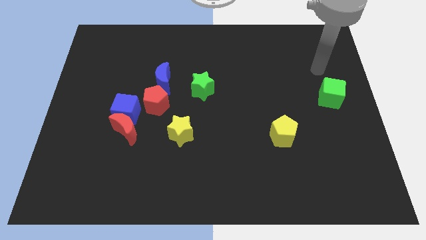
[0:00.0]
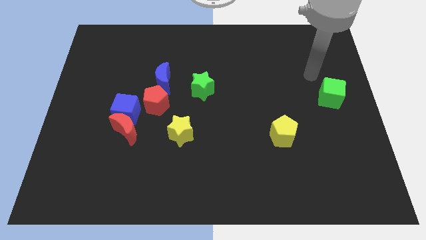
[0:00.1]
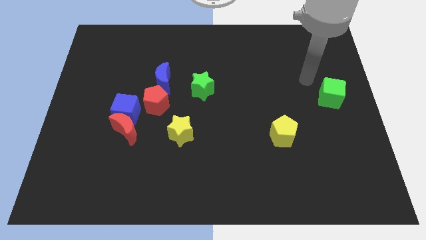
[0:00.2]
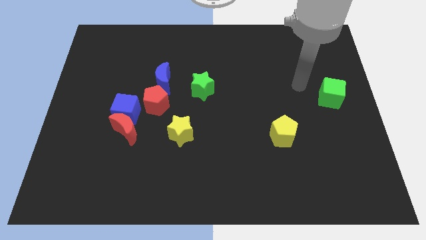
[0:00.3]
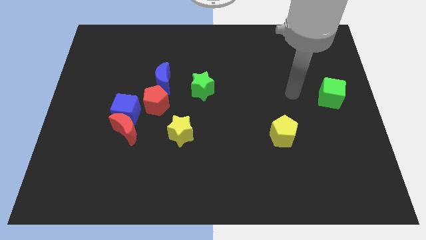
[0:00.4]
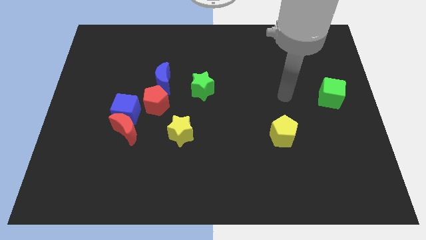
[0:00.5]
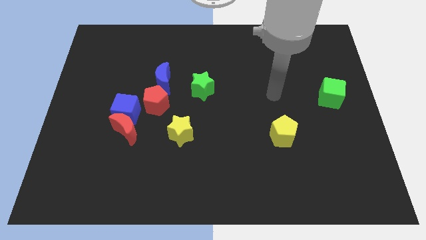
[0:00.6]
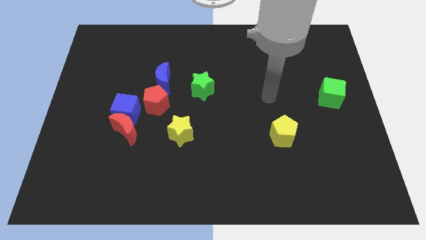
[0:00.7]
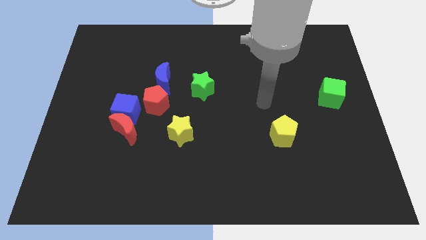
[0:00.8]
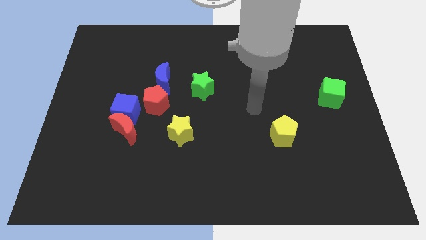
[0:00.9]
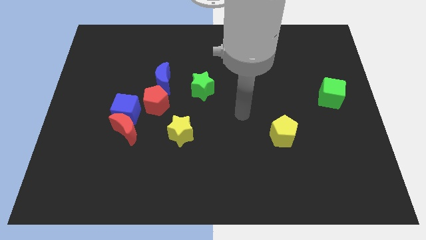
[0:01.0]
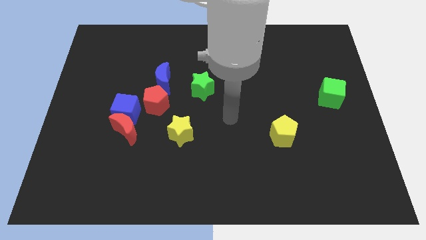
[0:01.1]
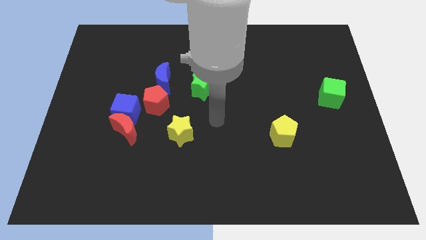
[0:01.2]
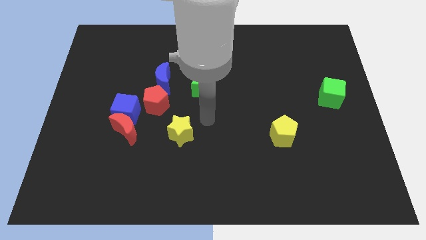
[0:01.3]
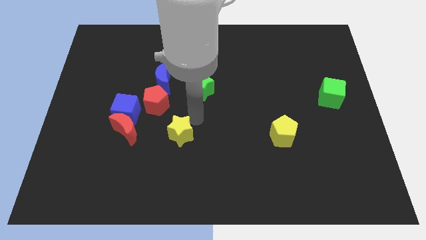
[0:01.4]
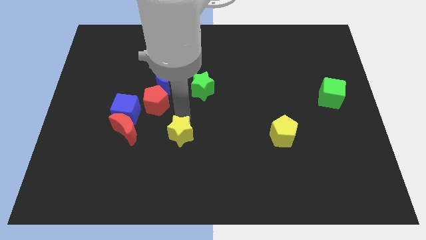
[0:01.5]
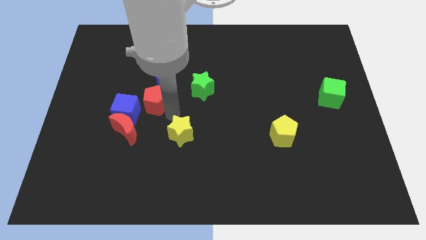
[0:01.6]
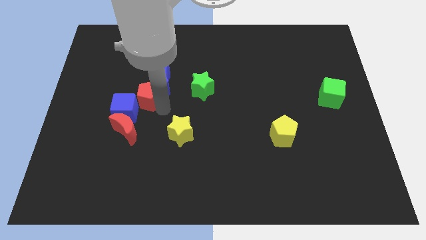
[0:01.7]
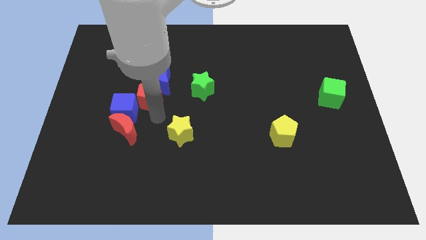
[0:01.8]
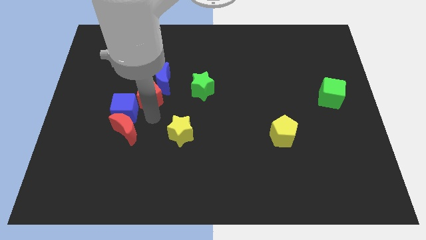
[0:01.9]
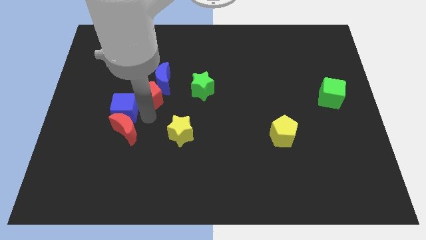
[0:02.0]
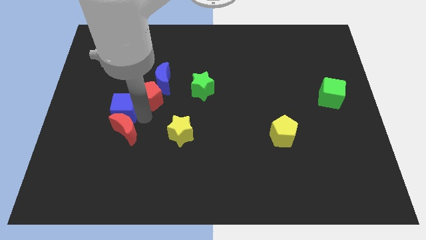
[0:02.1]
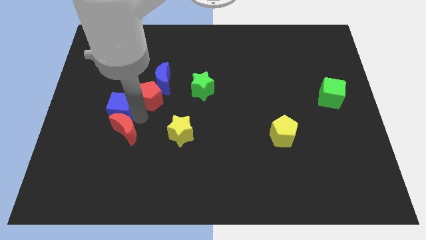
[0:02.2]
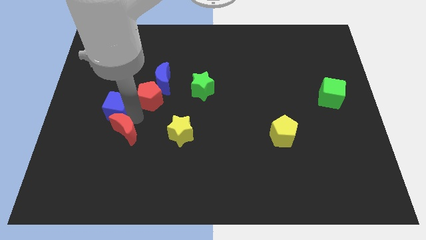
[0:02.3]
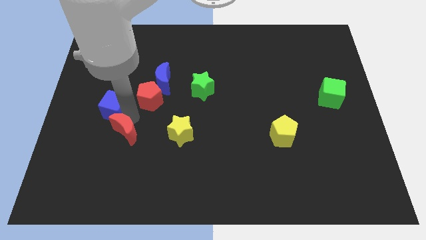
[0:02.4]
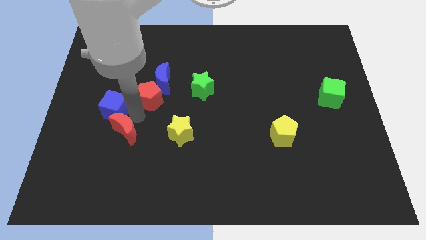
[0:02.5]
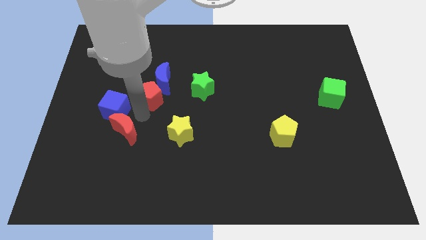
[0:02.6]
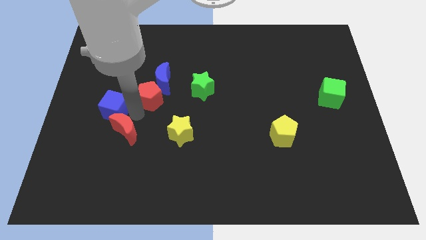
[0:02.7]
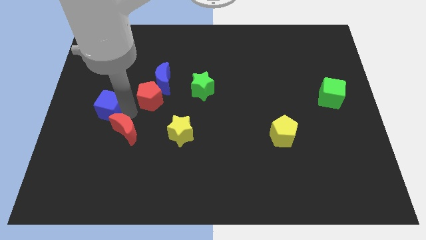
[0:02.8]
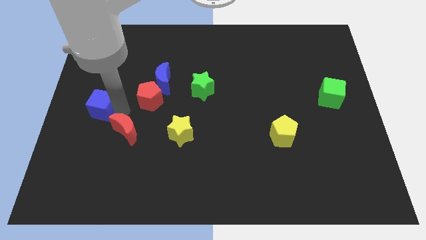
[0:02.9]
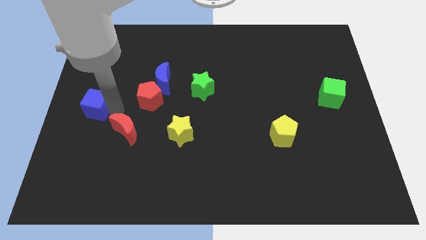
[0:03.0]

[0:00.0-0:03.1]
separate the blue cube from the red moon and red pentagon

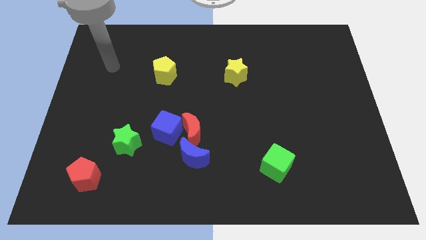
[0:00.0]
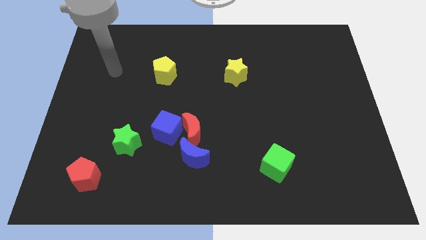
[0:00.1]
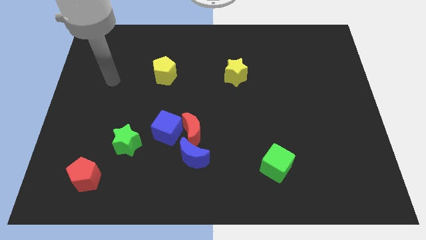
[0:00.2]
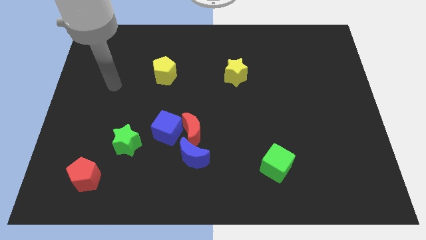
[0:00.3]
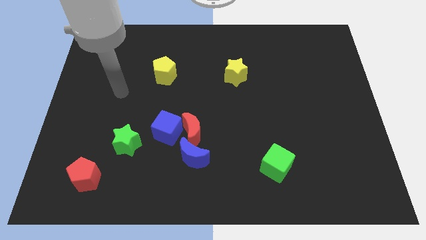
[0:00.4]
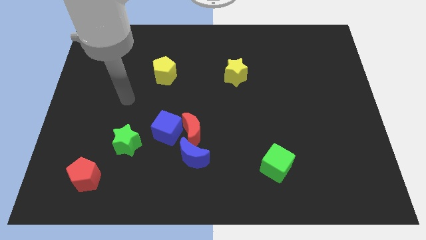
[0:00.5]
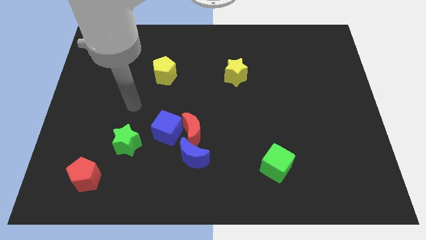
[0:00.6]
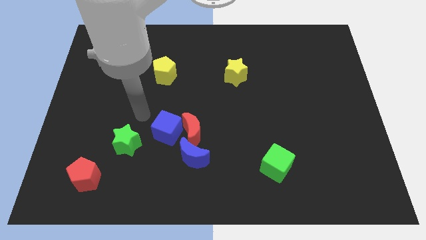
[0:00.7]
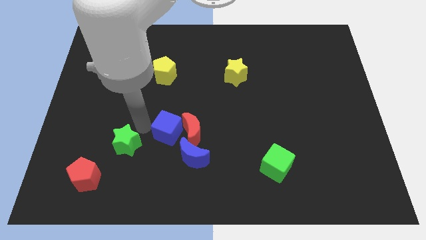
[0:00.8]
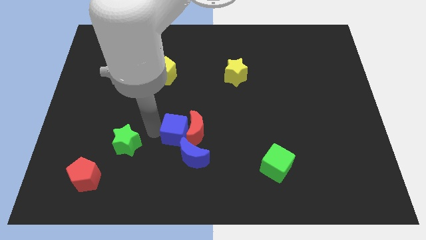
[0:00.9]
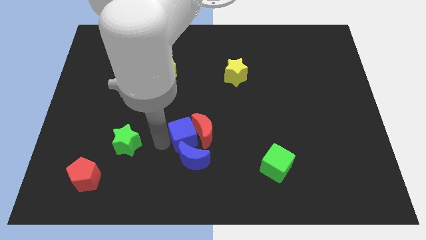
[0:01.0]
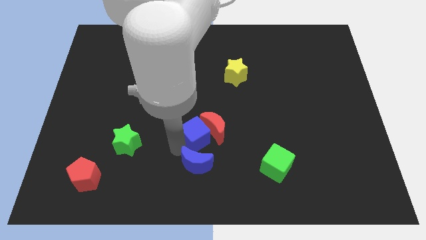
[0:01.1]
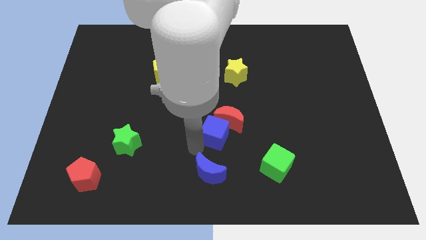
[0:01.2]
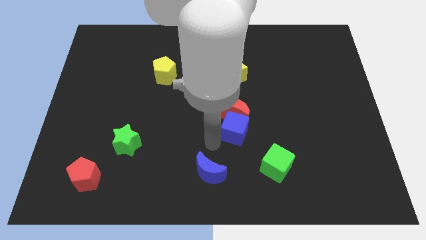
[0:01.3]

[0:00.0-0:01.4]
move the red moon away from the blue cube and blue moon

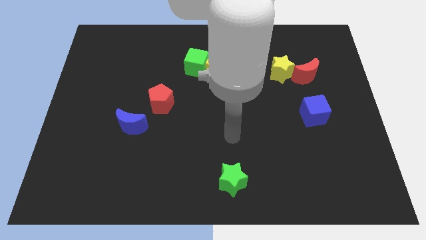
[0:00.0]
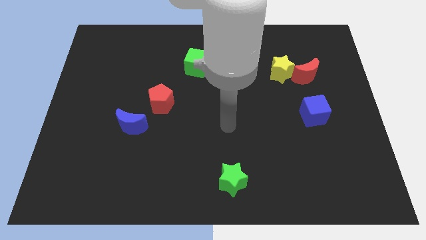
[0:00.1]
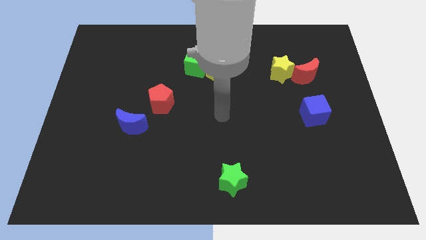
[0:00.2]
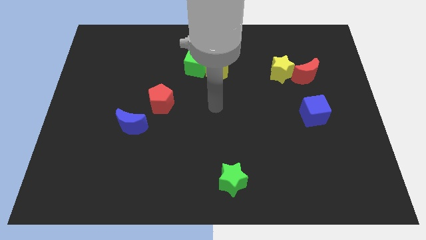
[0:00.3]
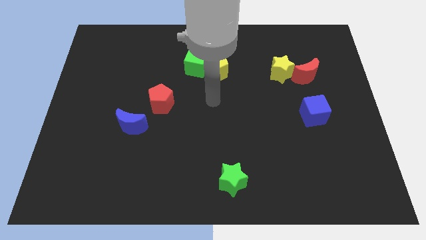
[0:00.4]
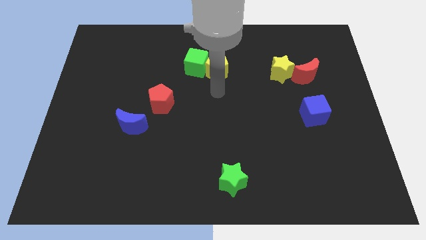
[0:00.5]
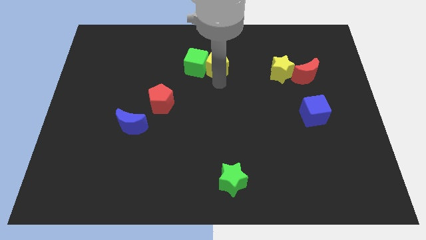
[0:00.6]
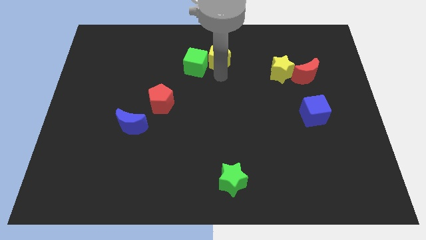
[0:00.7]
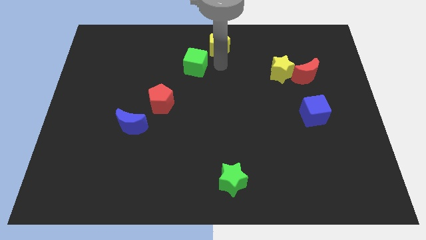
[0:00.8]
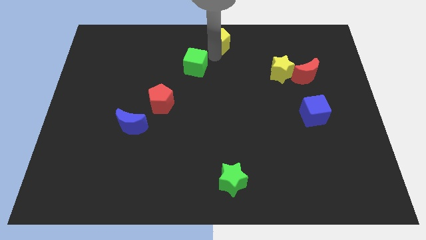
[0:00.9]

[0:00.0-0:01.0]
separate the green cube from the yellow pentagon

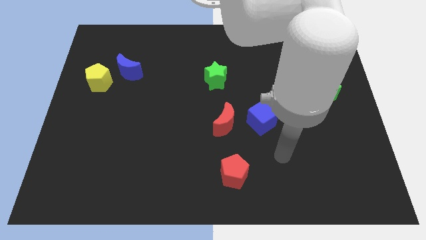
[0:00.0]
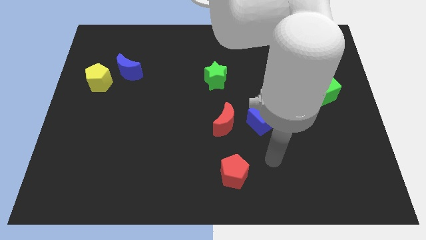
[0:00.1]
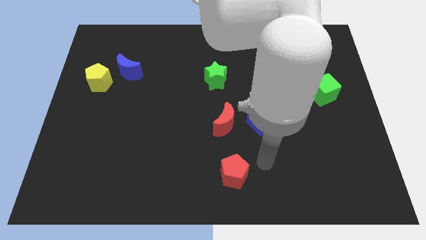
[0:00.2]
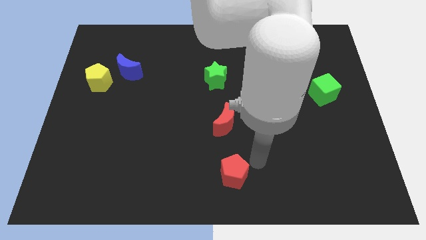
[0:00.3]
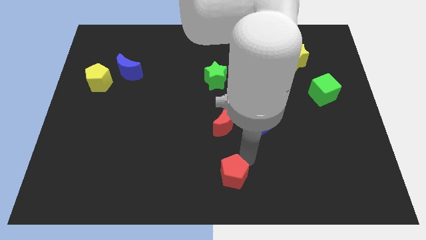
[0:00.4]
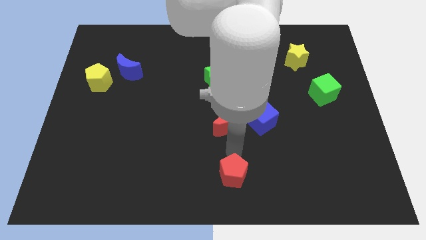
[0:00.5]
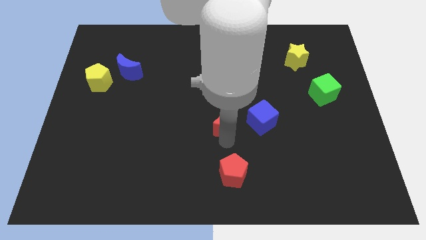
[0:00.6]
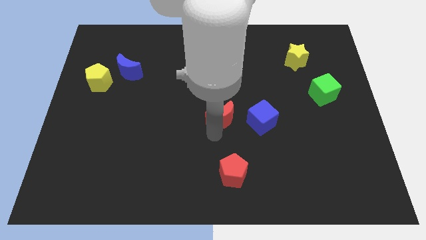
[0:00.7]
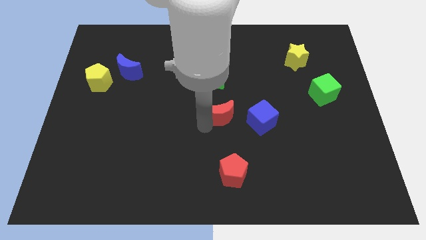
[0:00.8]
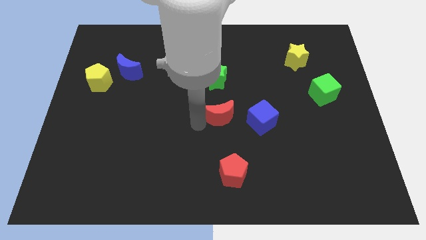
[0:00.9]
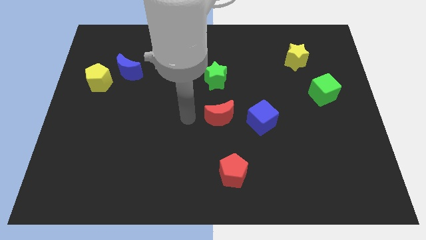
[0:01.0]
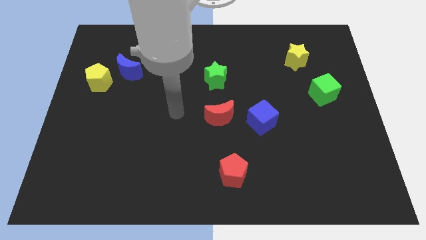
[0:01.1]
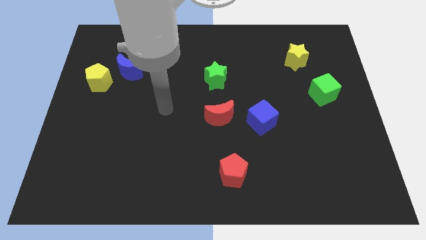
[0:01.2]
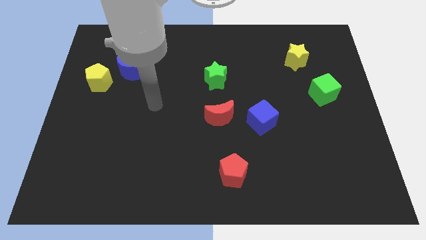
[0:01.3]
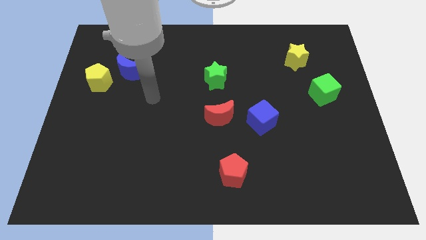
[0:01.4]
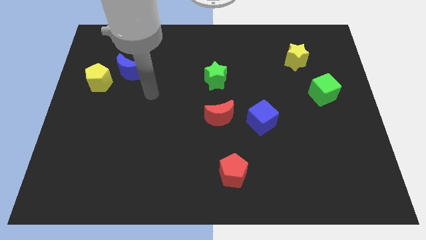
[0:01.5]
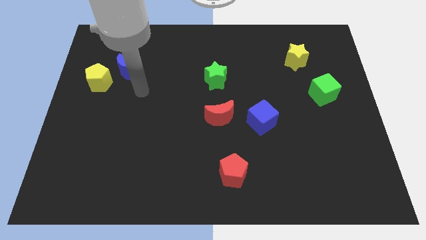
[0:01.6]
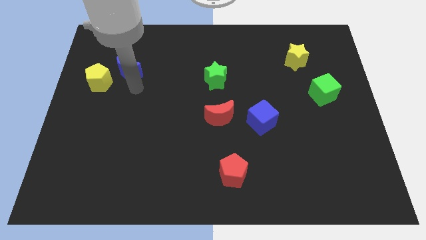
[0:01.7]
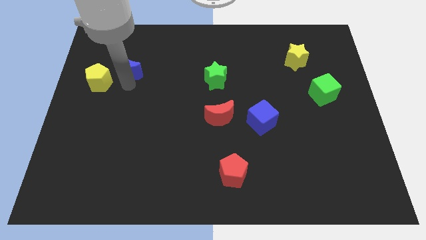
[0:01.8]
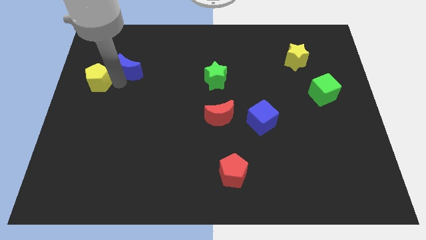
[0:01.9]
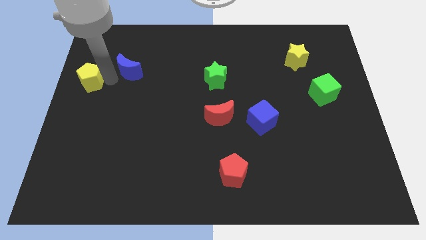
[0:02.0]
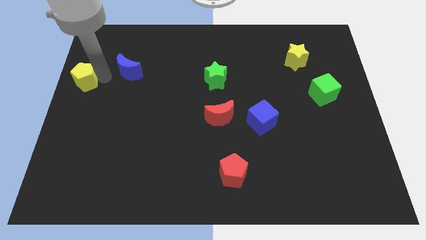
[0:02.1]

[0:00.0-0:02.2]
move the blue moon away from the yellow pentagon

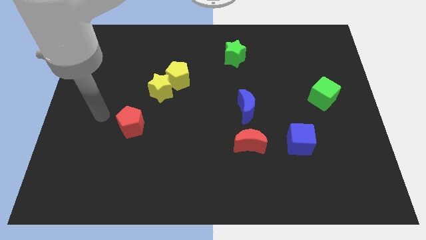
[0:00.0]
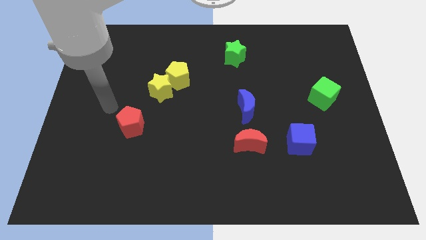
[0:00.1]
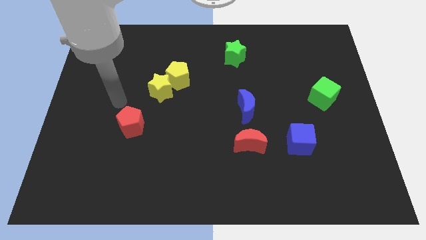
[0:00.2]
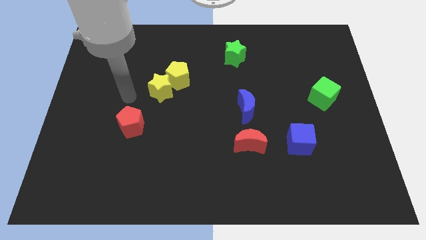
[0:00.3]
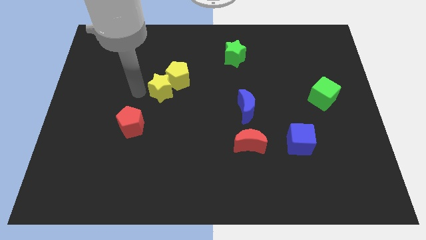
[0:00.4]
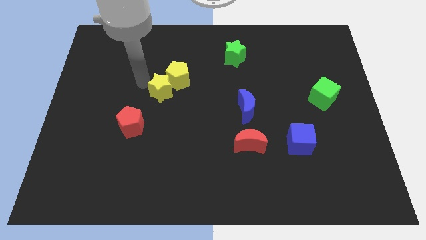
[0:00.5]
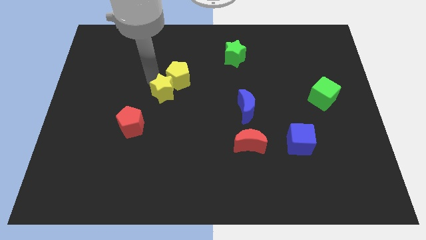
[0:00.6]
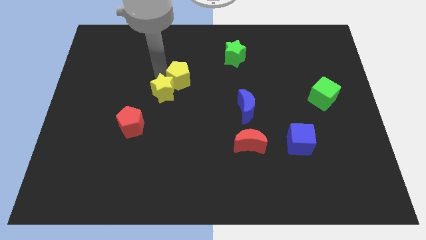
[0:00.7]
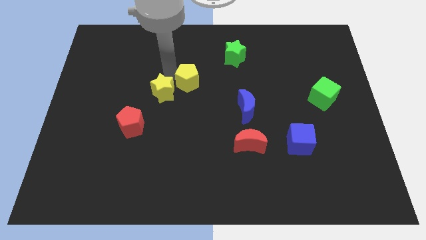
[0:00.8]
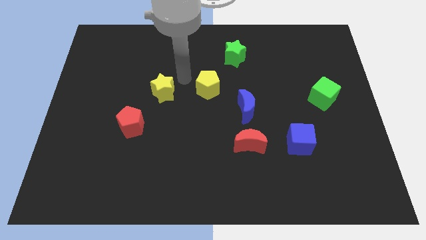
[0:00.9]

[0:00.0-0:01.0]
pull the yellow star apart from the yellow pentagon

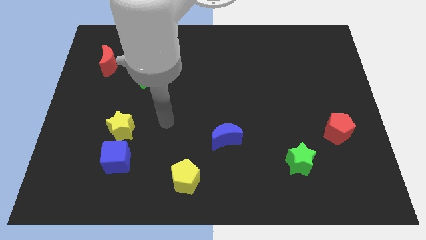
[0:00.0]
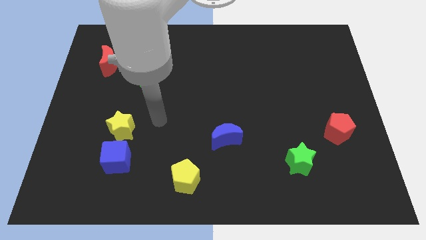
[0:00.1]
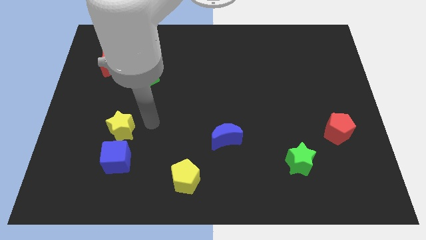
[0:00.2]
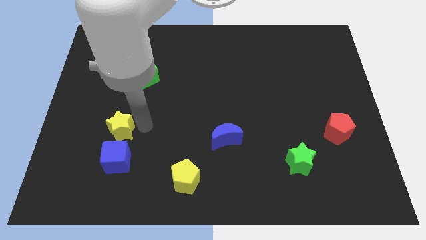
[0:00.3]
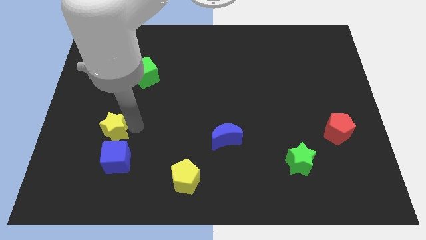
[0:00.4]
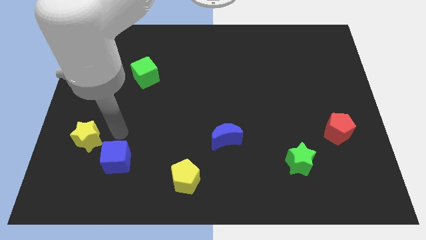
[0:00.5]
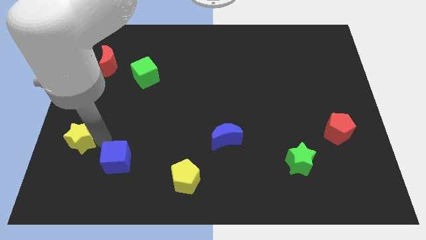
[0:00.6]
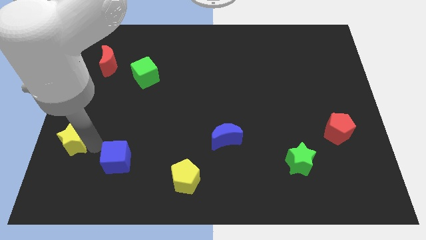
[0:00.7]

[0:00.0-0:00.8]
separate the blue cube from the yellow star
